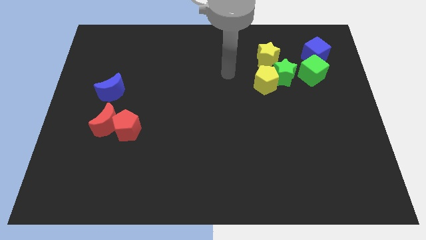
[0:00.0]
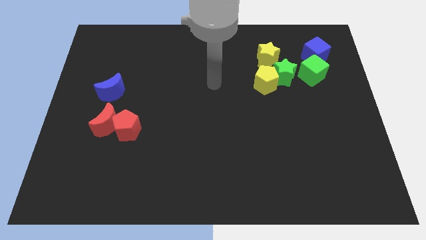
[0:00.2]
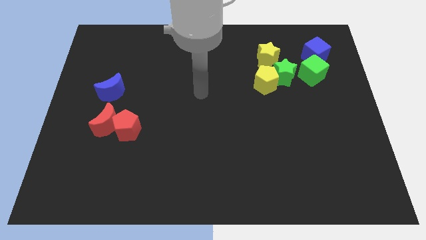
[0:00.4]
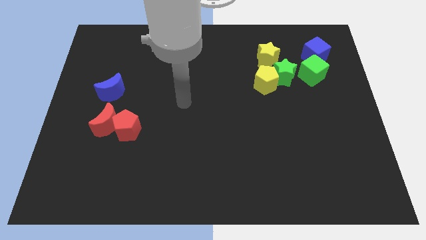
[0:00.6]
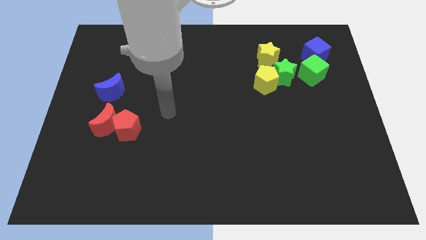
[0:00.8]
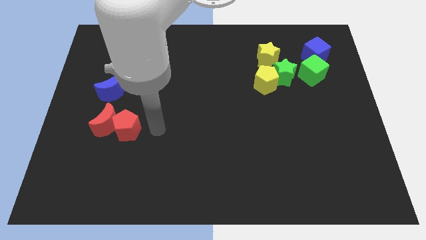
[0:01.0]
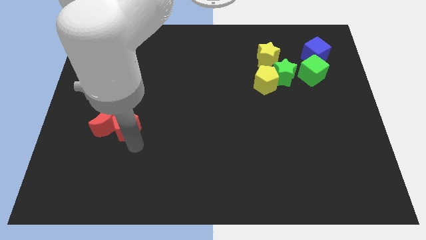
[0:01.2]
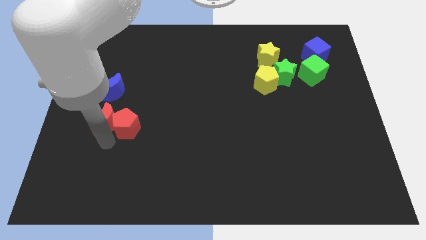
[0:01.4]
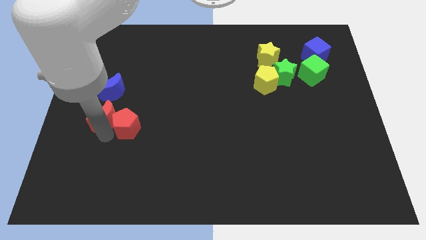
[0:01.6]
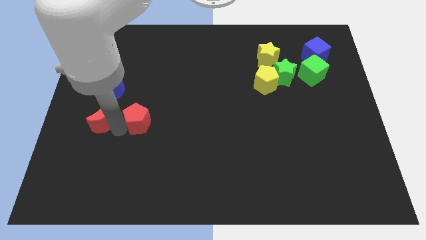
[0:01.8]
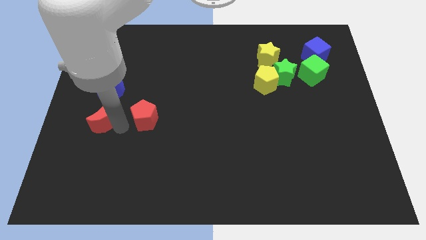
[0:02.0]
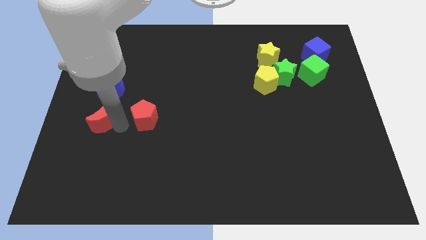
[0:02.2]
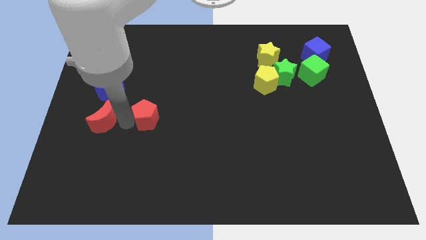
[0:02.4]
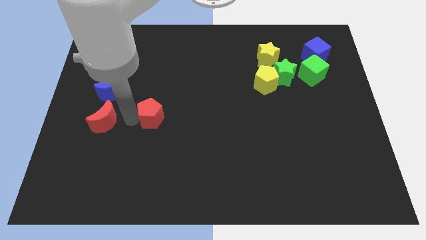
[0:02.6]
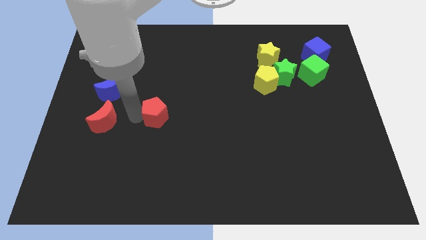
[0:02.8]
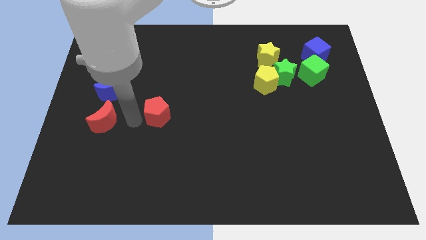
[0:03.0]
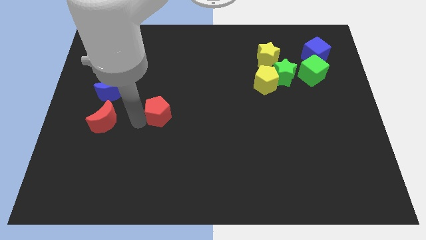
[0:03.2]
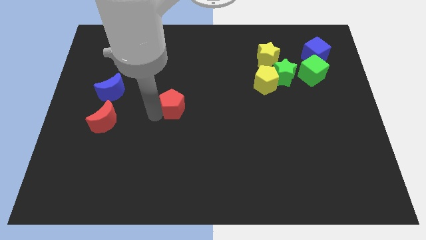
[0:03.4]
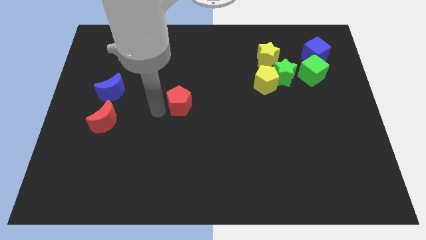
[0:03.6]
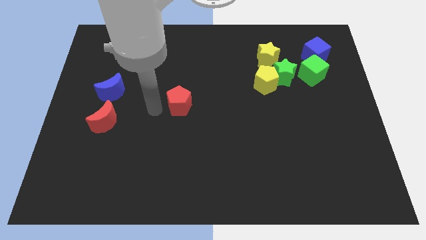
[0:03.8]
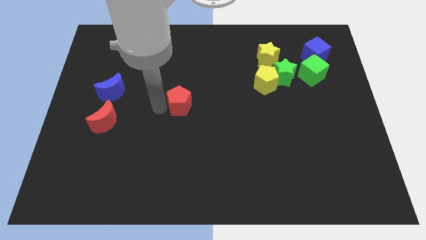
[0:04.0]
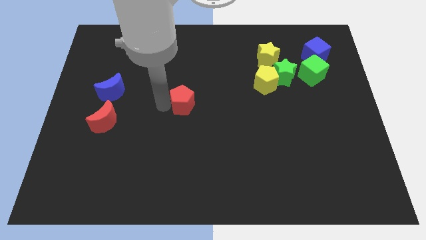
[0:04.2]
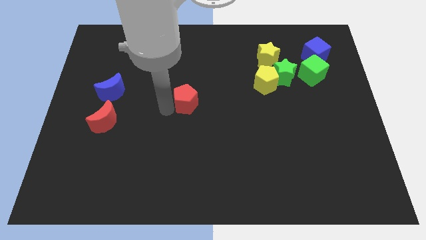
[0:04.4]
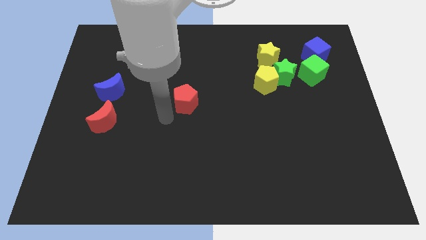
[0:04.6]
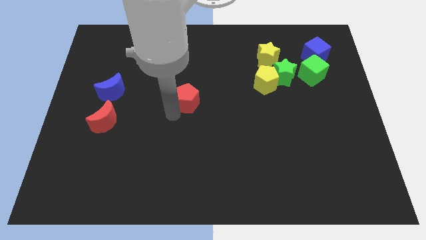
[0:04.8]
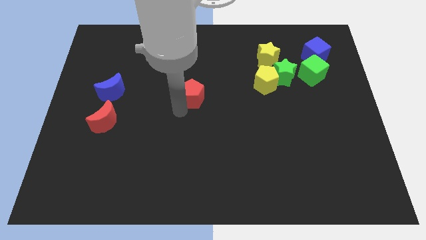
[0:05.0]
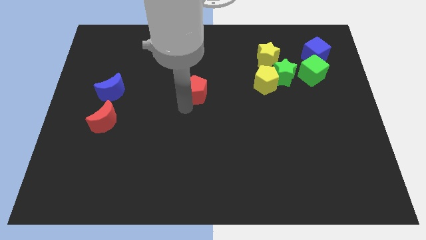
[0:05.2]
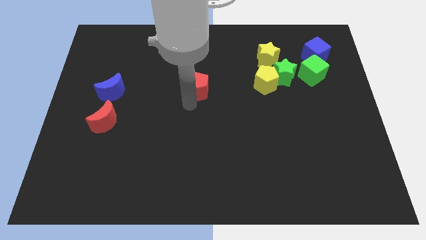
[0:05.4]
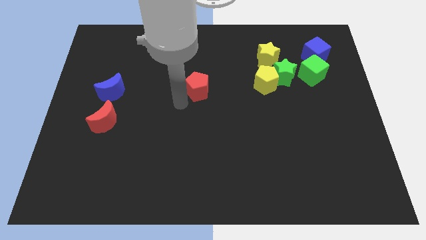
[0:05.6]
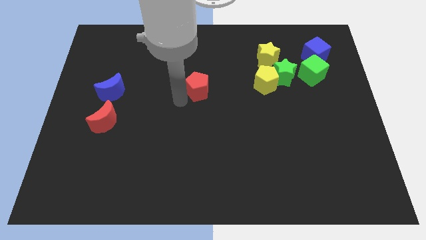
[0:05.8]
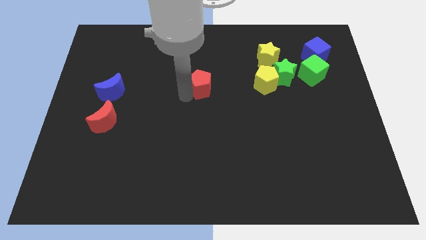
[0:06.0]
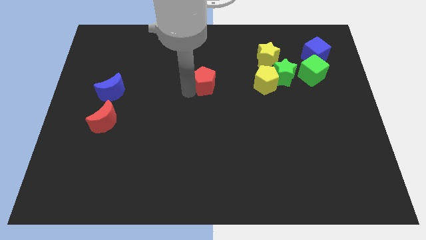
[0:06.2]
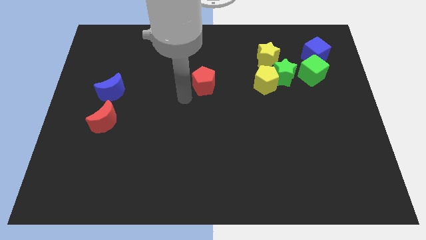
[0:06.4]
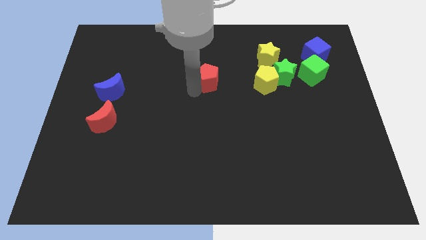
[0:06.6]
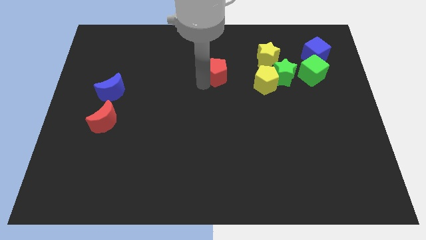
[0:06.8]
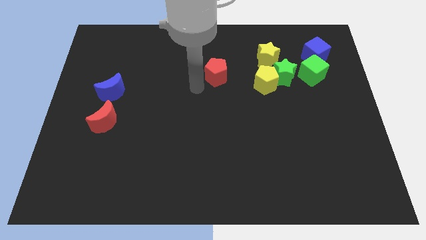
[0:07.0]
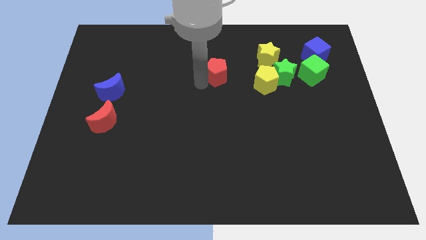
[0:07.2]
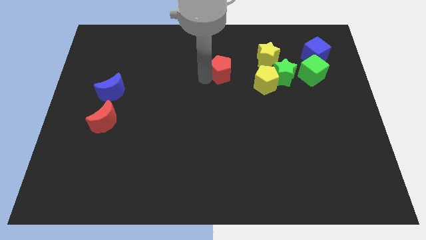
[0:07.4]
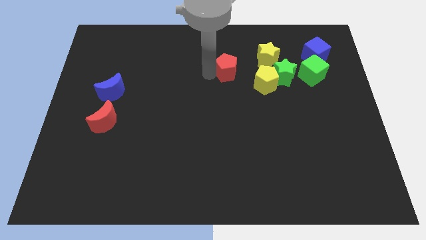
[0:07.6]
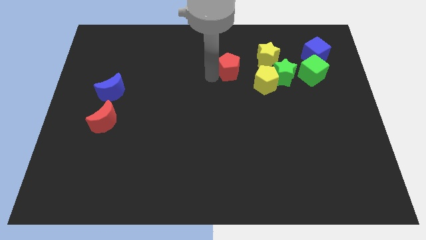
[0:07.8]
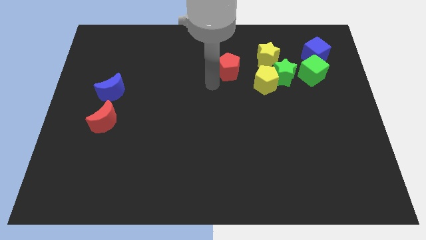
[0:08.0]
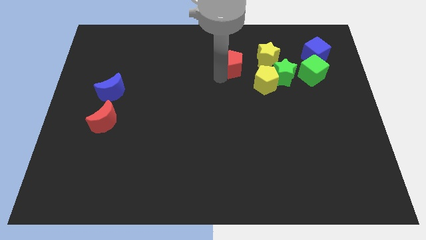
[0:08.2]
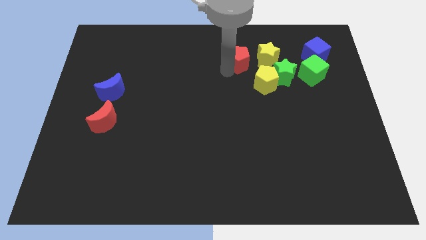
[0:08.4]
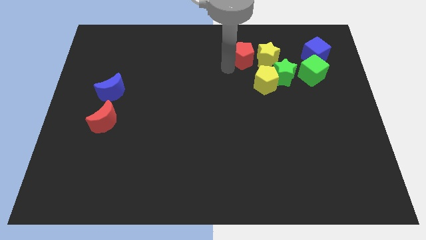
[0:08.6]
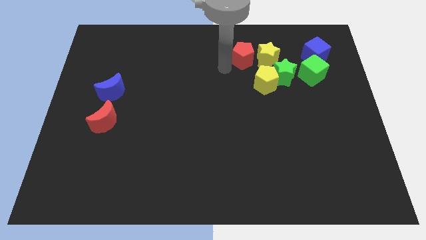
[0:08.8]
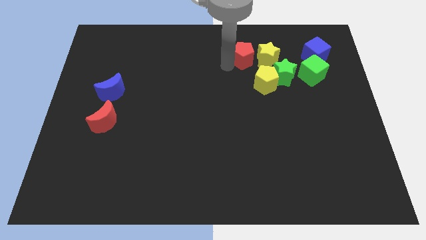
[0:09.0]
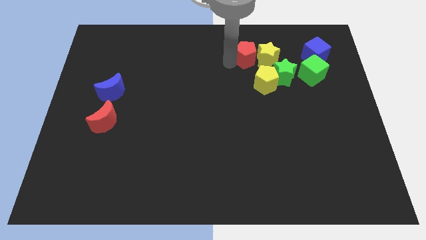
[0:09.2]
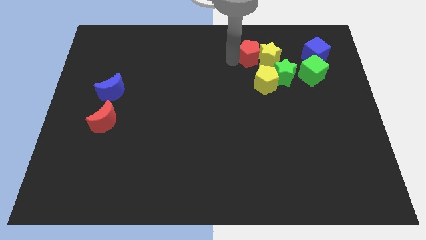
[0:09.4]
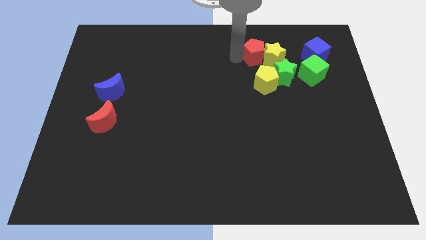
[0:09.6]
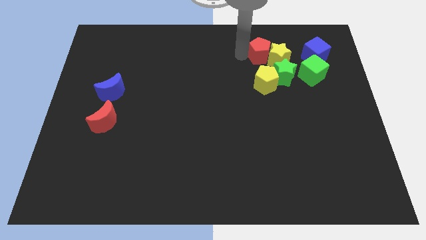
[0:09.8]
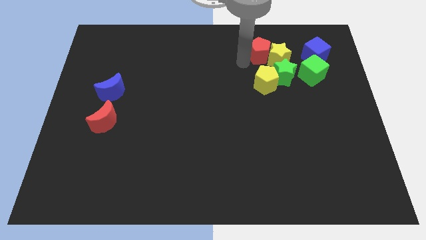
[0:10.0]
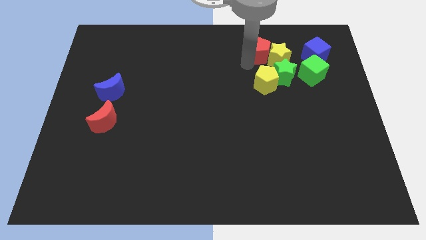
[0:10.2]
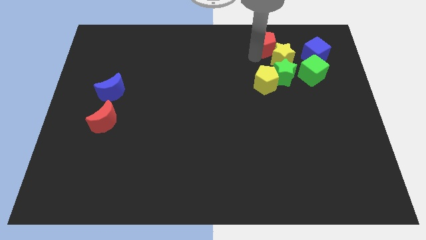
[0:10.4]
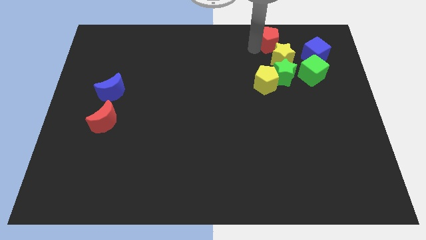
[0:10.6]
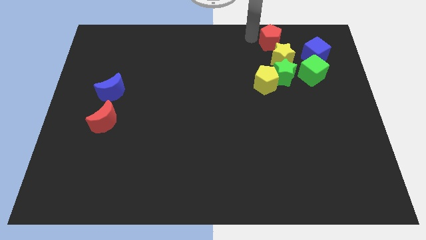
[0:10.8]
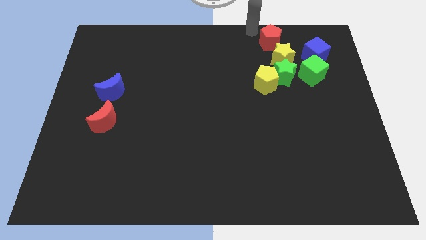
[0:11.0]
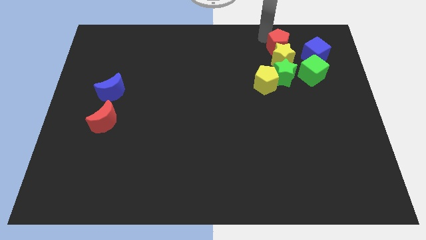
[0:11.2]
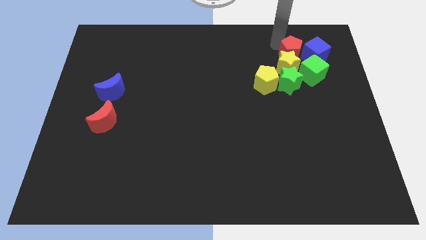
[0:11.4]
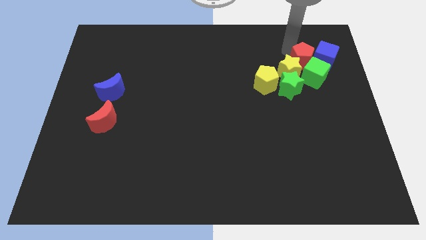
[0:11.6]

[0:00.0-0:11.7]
move the red pentagon diagonally up and to the right of the green star
